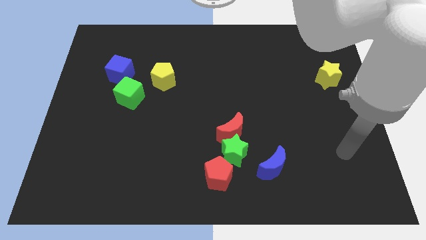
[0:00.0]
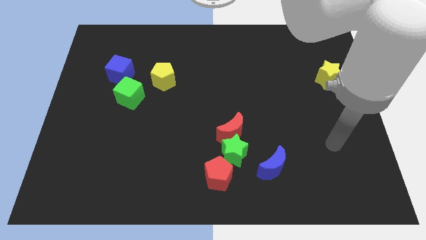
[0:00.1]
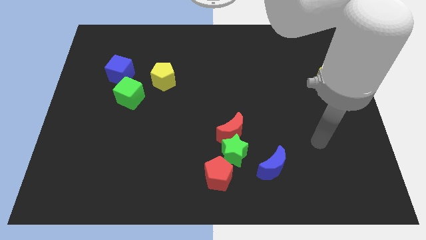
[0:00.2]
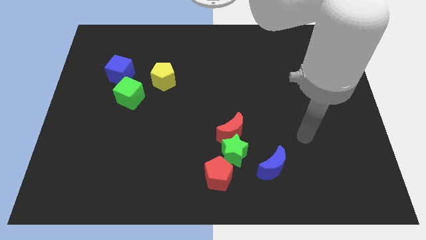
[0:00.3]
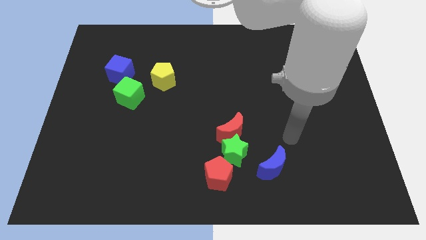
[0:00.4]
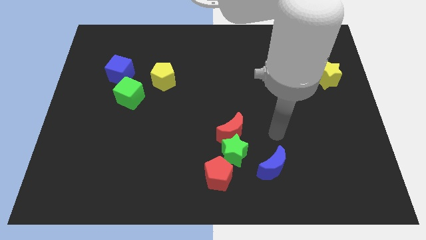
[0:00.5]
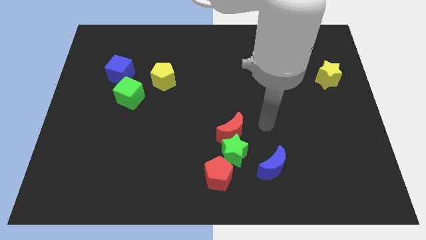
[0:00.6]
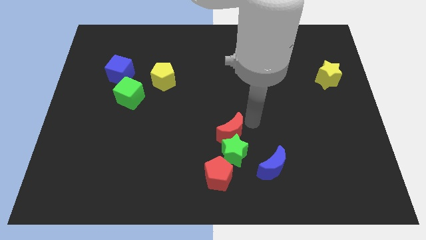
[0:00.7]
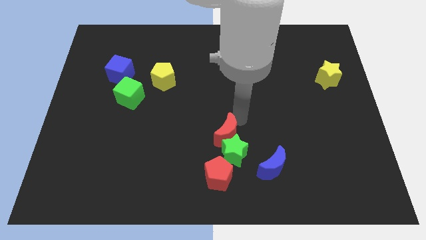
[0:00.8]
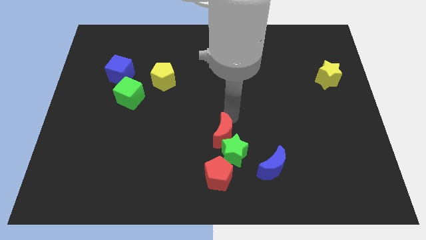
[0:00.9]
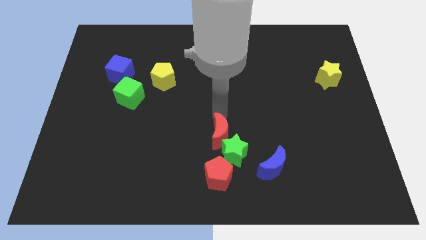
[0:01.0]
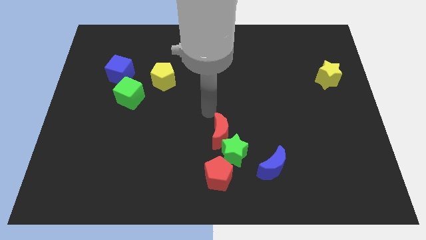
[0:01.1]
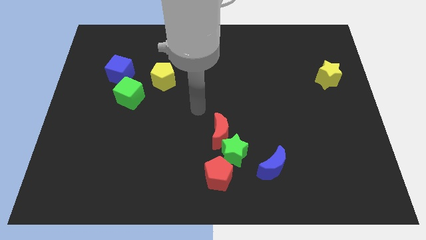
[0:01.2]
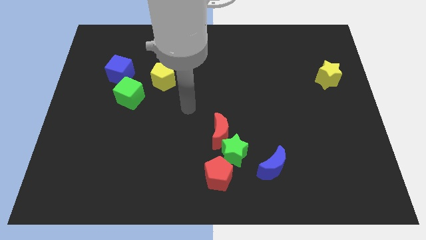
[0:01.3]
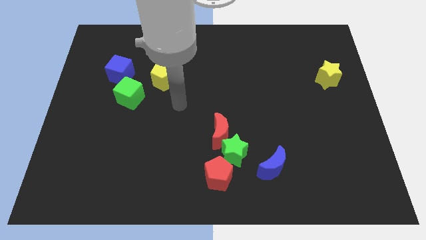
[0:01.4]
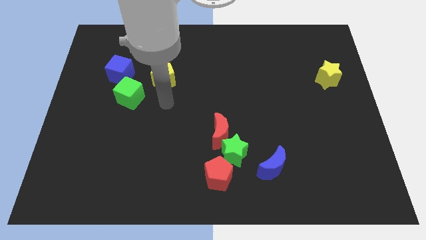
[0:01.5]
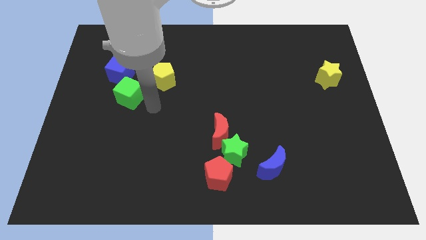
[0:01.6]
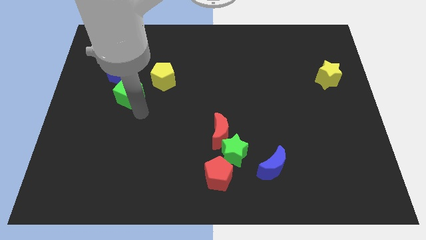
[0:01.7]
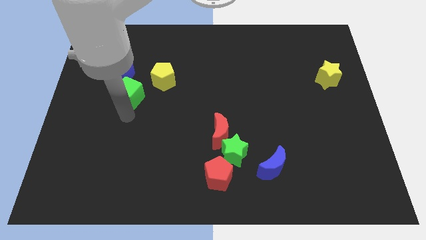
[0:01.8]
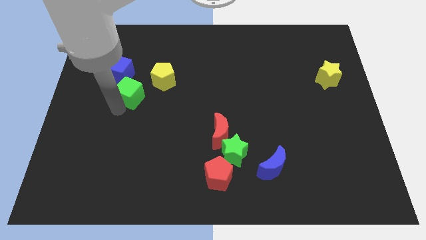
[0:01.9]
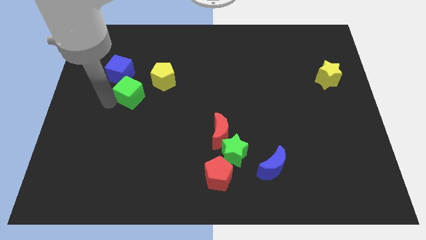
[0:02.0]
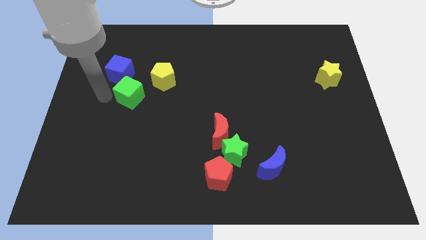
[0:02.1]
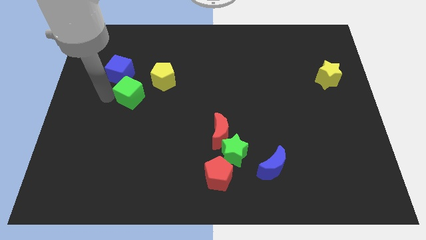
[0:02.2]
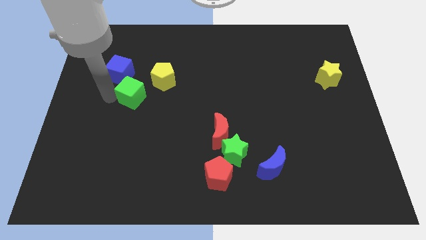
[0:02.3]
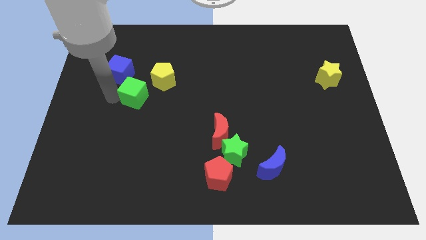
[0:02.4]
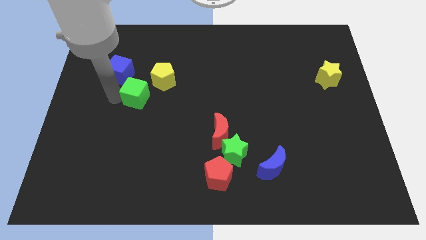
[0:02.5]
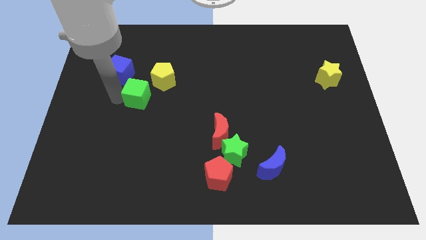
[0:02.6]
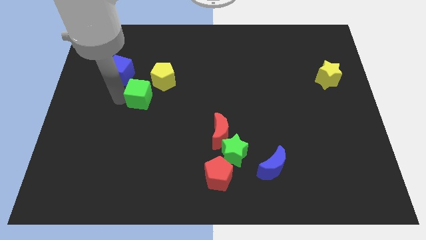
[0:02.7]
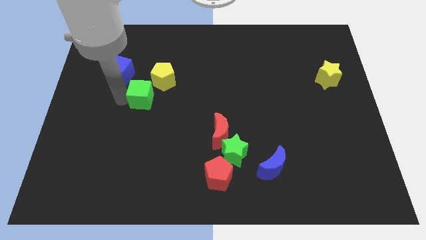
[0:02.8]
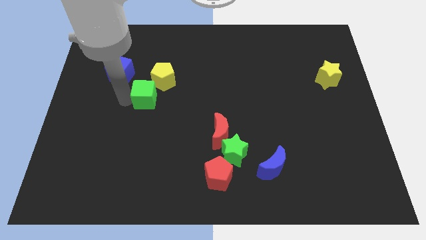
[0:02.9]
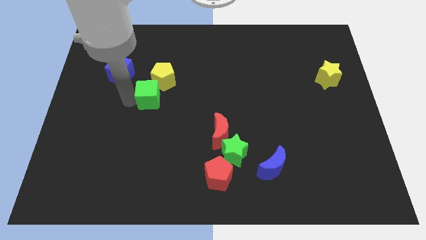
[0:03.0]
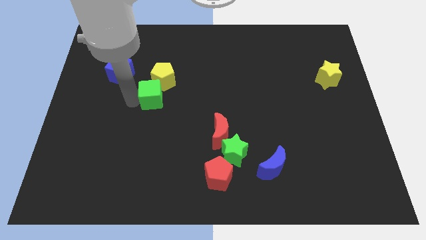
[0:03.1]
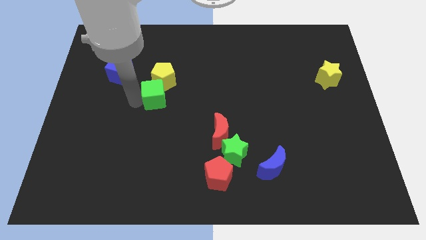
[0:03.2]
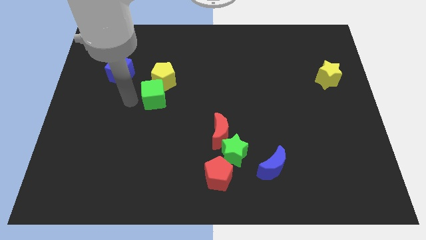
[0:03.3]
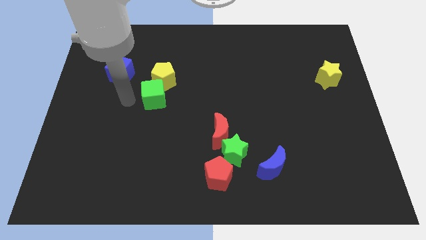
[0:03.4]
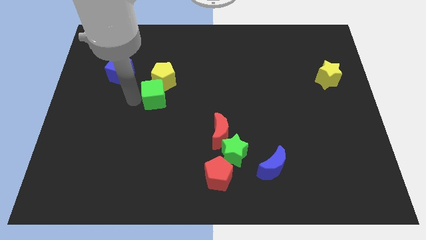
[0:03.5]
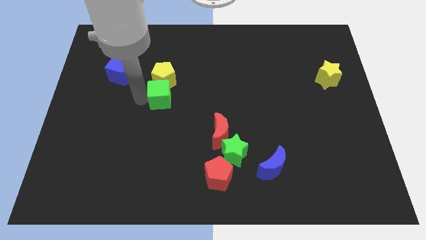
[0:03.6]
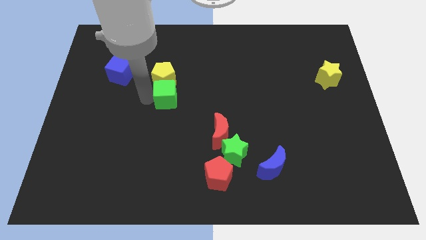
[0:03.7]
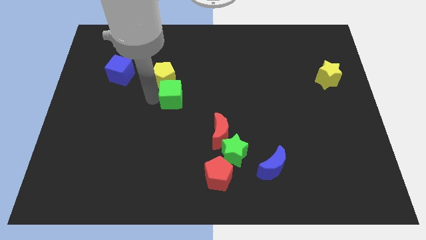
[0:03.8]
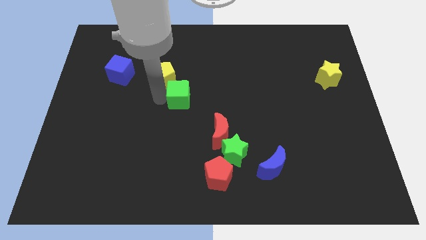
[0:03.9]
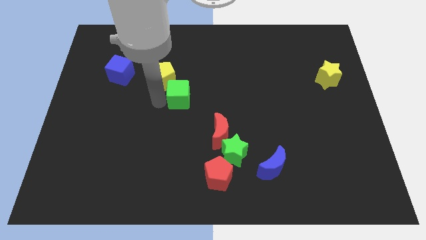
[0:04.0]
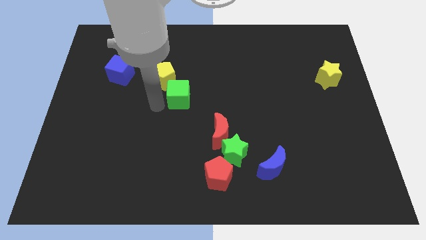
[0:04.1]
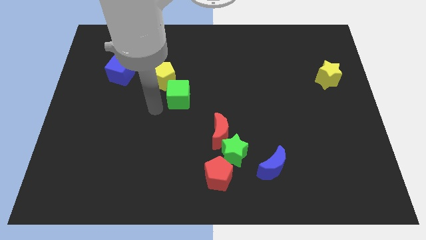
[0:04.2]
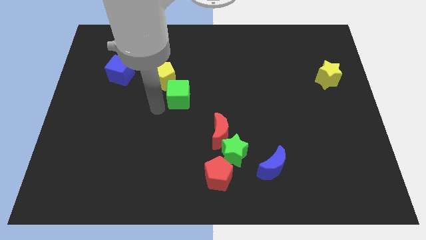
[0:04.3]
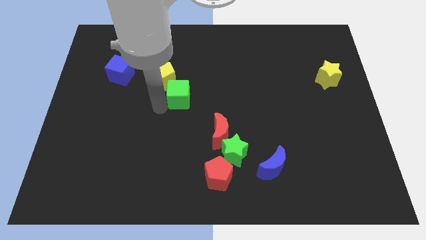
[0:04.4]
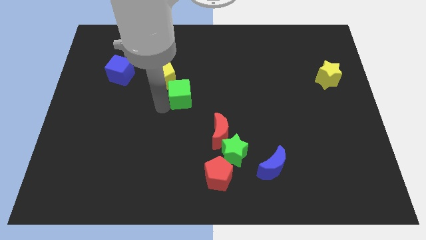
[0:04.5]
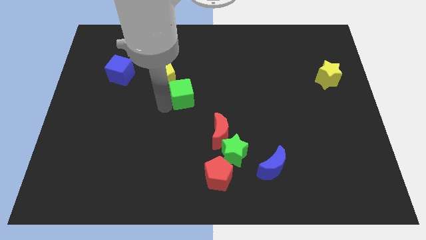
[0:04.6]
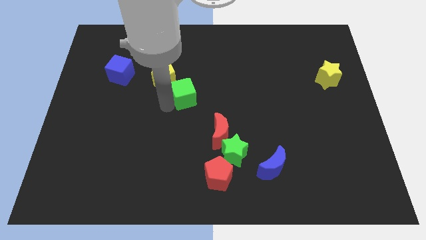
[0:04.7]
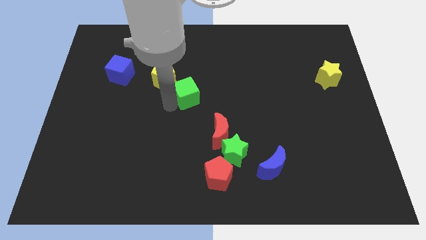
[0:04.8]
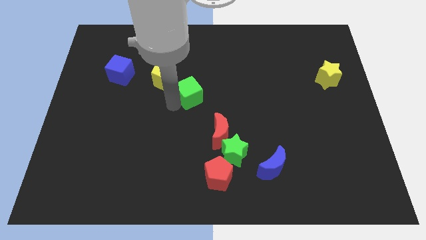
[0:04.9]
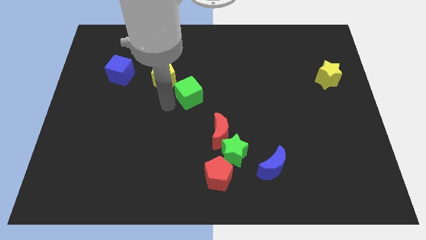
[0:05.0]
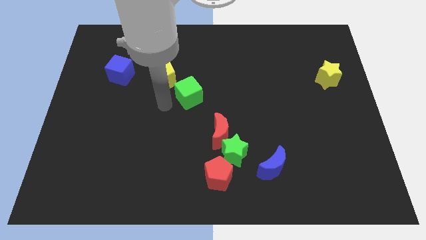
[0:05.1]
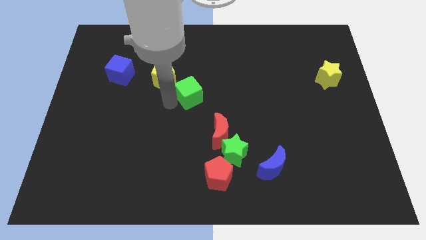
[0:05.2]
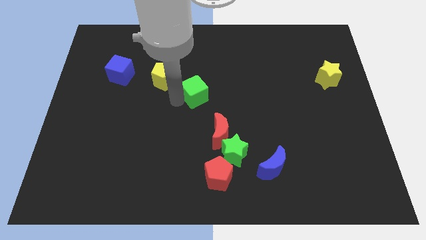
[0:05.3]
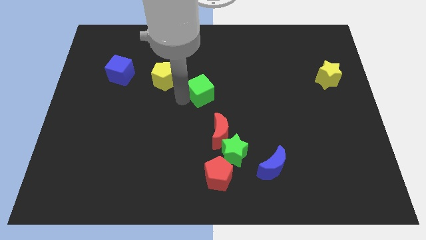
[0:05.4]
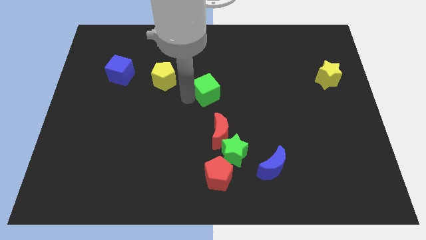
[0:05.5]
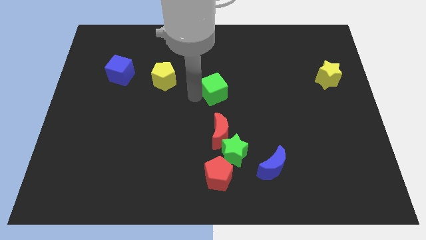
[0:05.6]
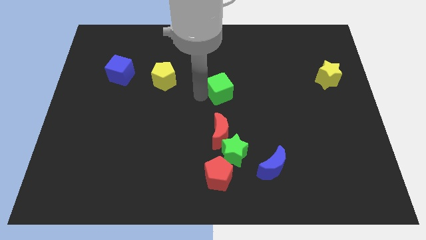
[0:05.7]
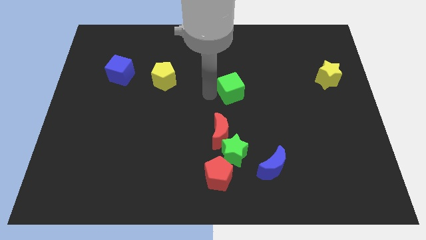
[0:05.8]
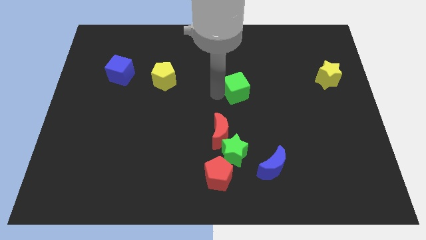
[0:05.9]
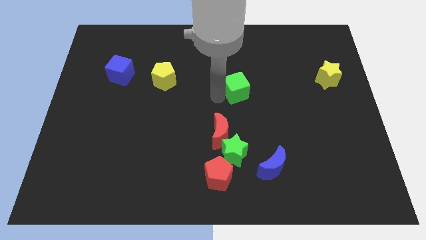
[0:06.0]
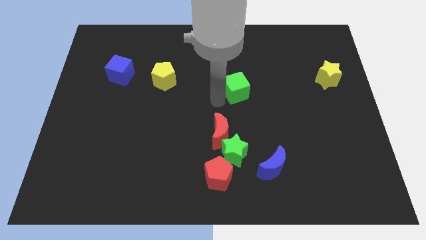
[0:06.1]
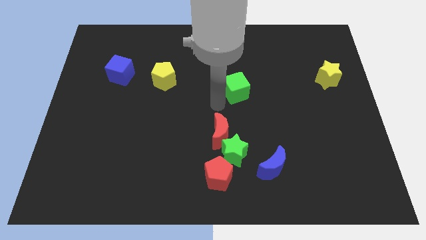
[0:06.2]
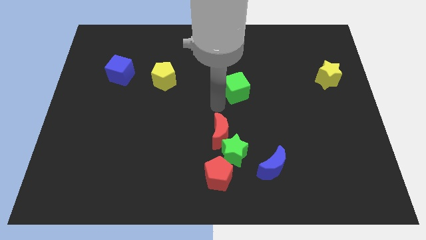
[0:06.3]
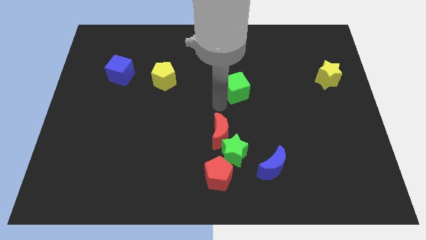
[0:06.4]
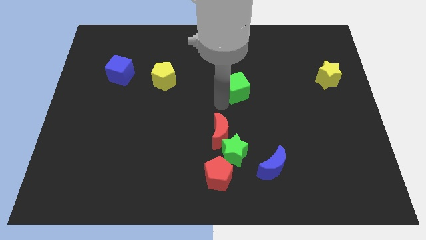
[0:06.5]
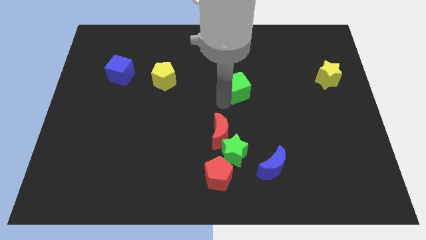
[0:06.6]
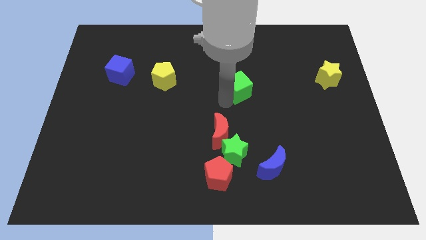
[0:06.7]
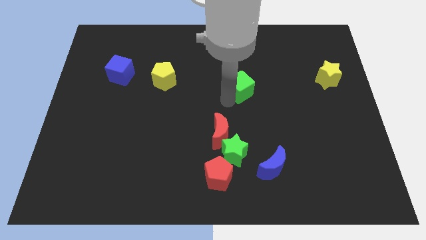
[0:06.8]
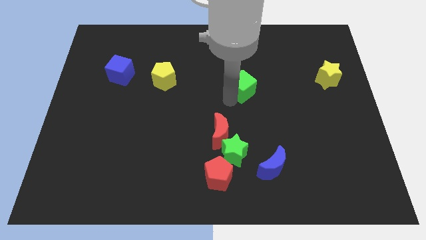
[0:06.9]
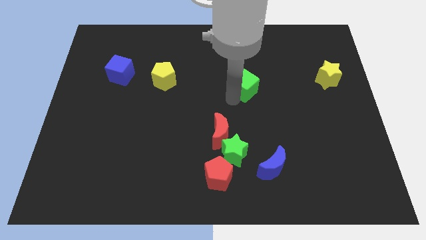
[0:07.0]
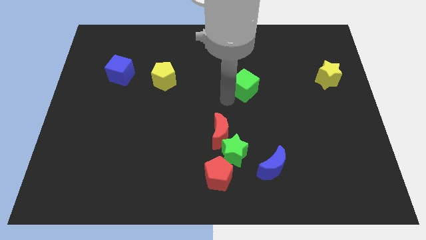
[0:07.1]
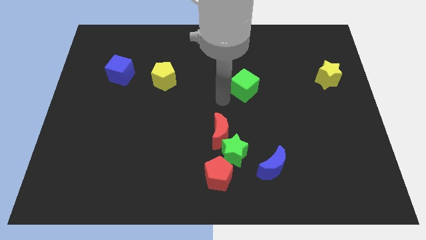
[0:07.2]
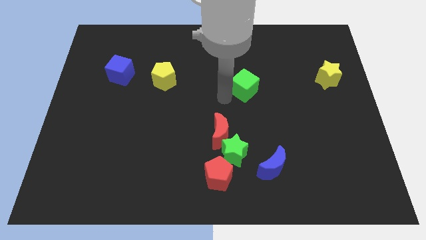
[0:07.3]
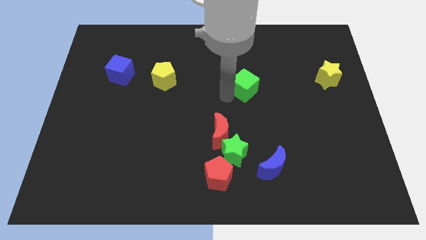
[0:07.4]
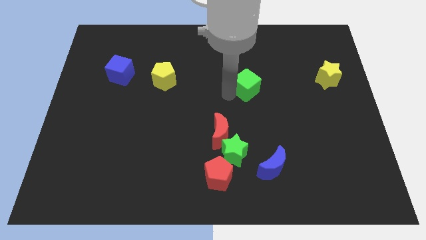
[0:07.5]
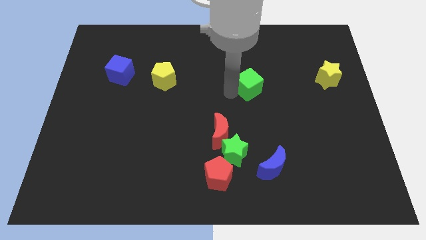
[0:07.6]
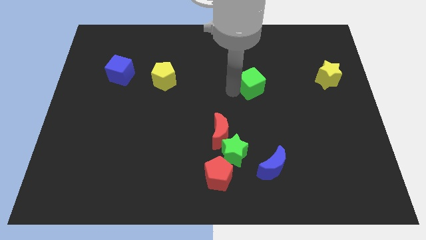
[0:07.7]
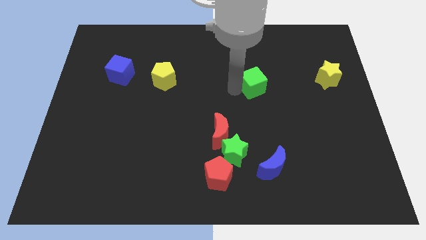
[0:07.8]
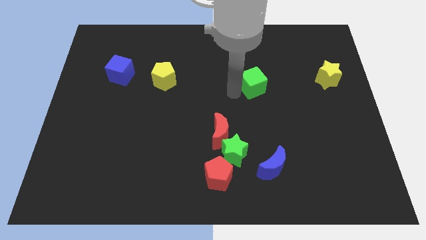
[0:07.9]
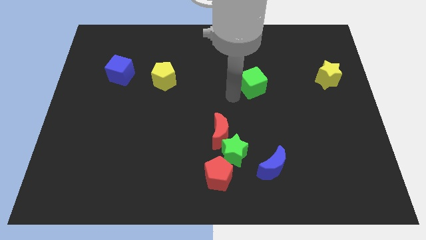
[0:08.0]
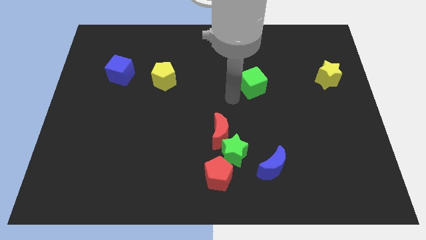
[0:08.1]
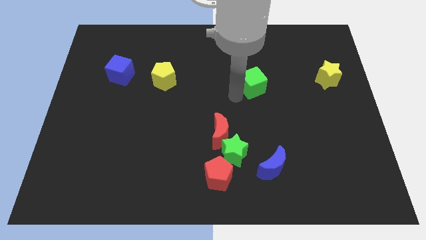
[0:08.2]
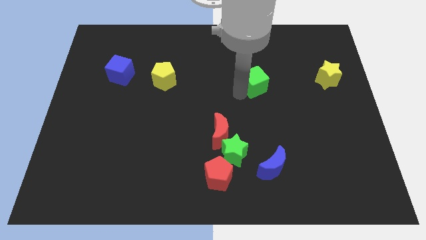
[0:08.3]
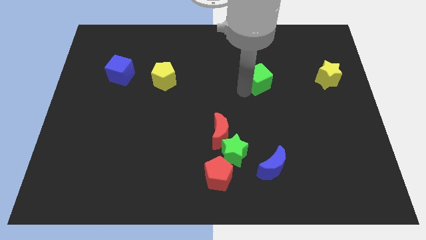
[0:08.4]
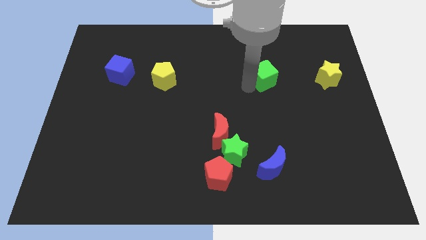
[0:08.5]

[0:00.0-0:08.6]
push the green cube left of the yellow star
